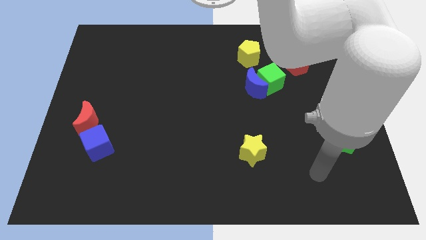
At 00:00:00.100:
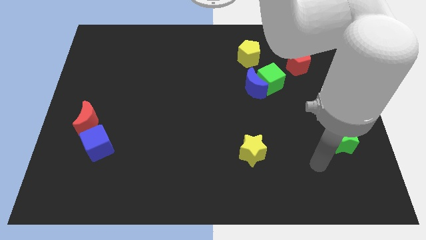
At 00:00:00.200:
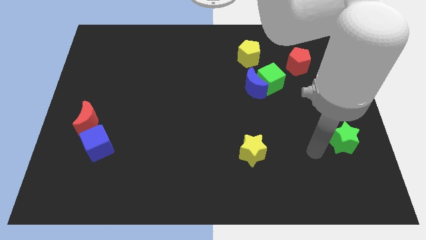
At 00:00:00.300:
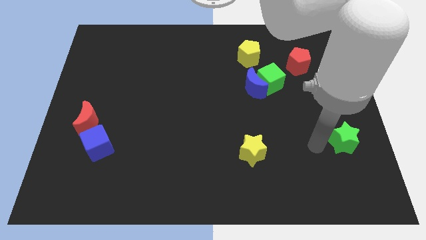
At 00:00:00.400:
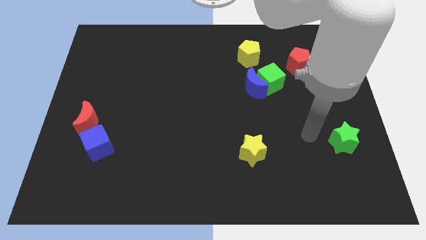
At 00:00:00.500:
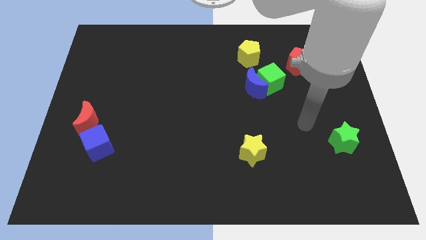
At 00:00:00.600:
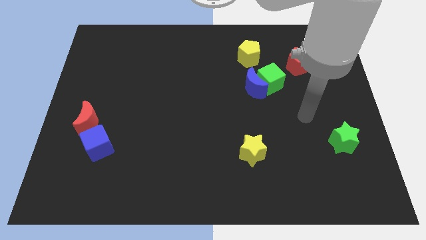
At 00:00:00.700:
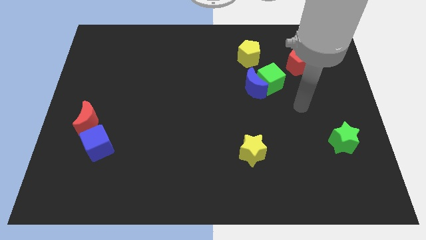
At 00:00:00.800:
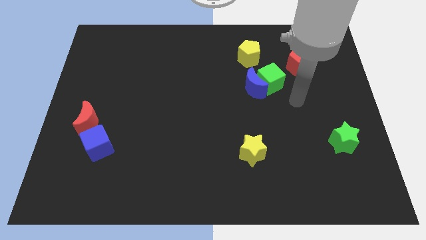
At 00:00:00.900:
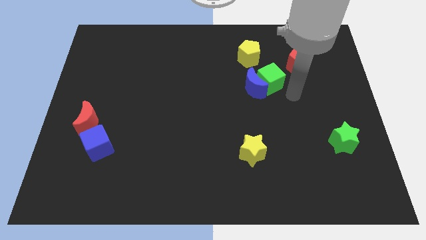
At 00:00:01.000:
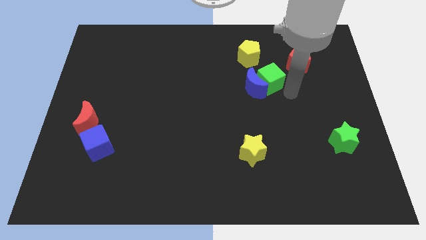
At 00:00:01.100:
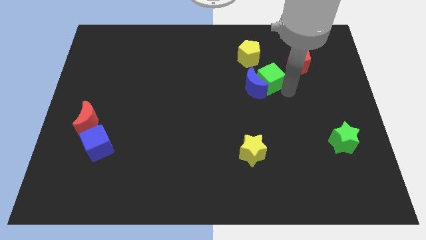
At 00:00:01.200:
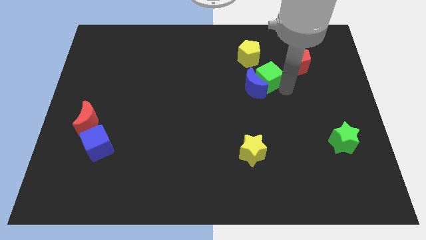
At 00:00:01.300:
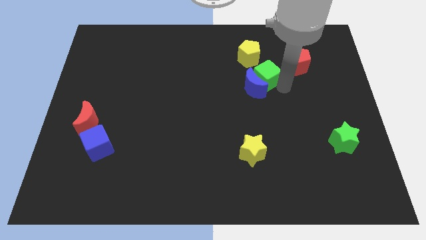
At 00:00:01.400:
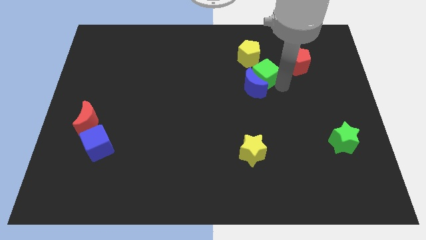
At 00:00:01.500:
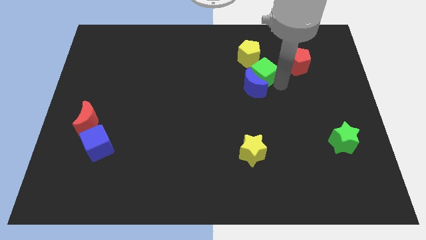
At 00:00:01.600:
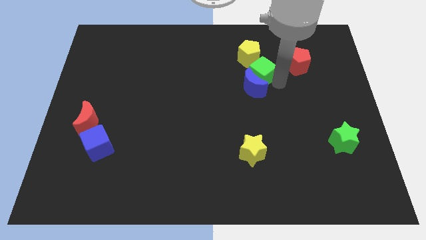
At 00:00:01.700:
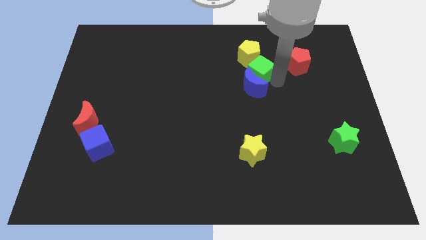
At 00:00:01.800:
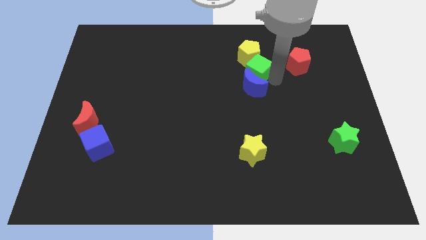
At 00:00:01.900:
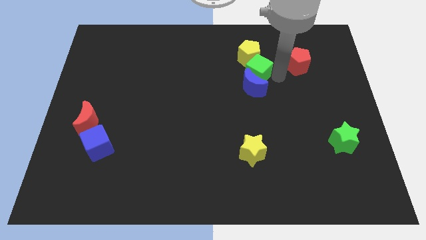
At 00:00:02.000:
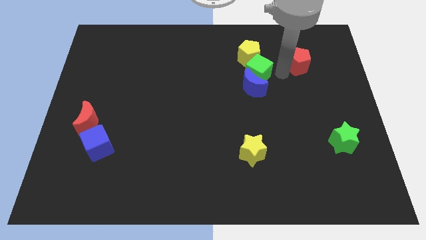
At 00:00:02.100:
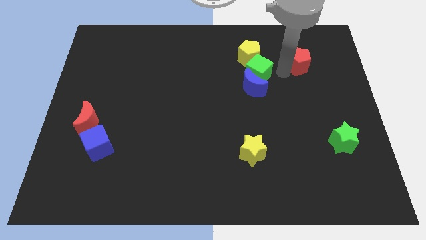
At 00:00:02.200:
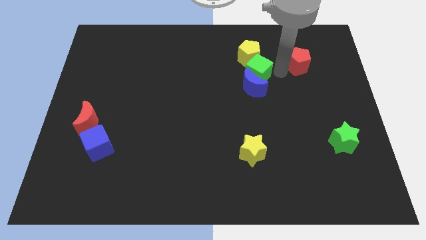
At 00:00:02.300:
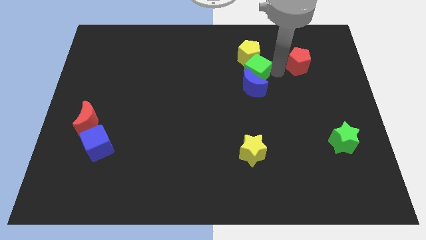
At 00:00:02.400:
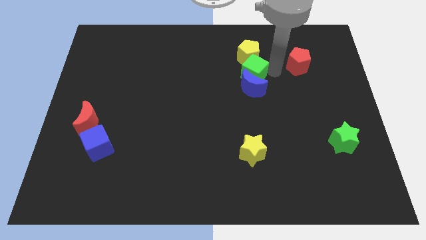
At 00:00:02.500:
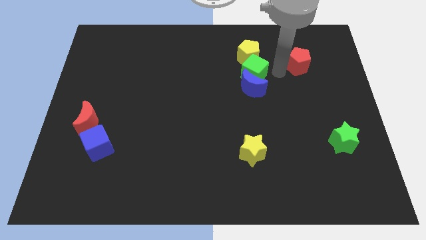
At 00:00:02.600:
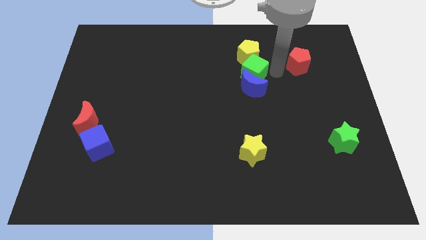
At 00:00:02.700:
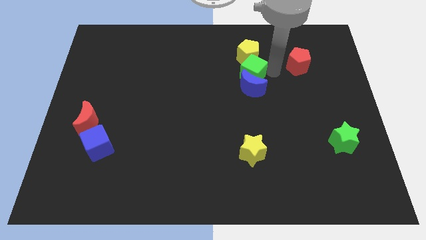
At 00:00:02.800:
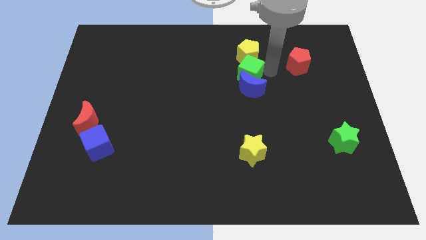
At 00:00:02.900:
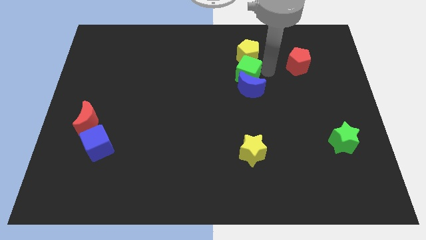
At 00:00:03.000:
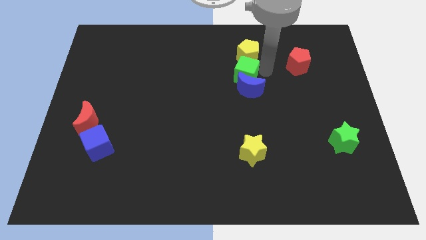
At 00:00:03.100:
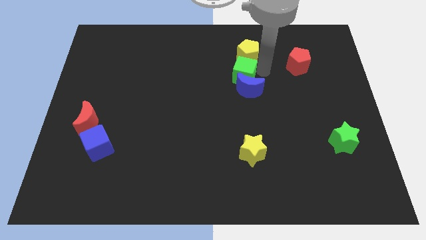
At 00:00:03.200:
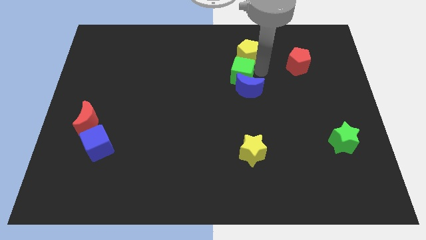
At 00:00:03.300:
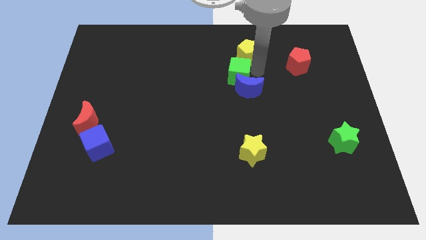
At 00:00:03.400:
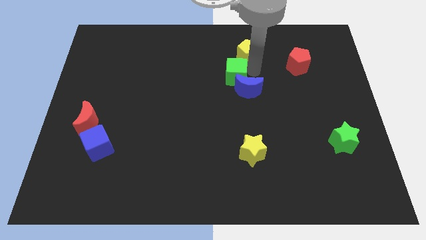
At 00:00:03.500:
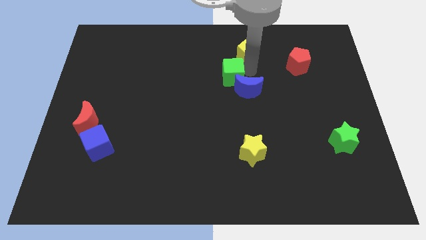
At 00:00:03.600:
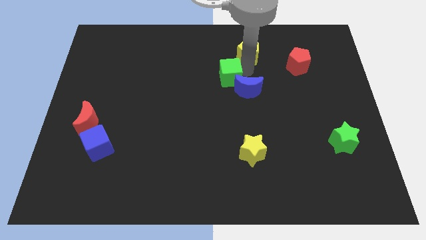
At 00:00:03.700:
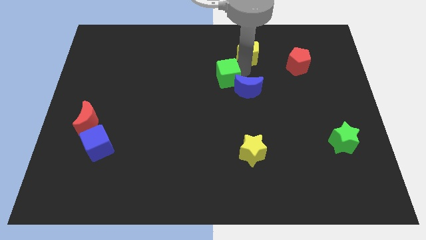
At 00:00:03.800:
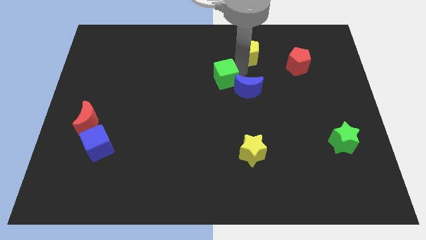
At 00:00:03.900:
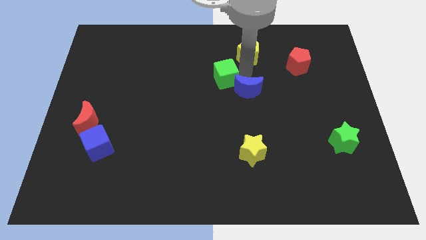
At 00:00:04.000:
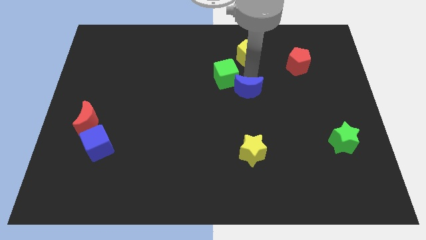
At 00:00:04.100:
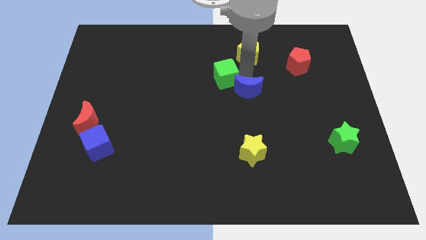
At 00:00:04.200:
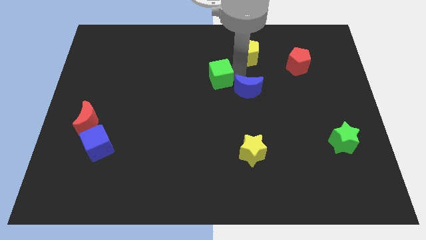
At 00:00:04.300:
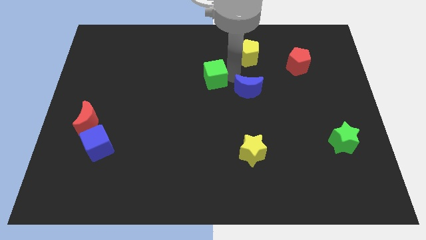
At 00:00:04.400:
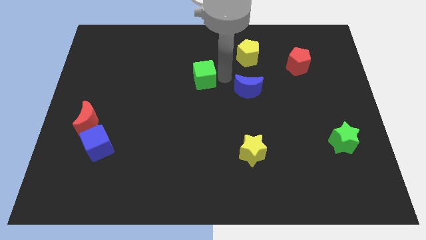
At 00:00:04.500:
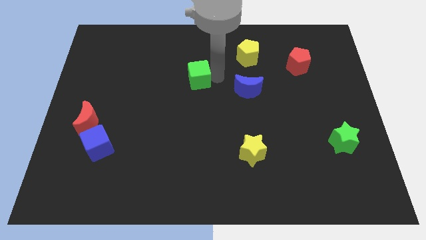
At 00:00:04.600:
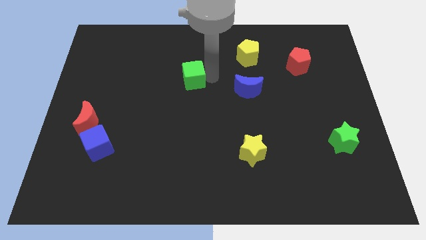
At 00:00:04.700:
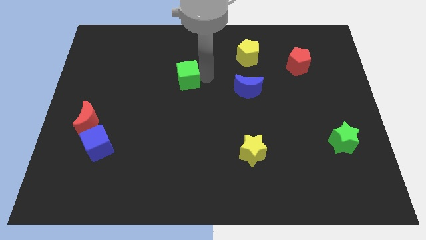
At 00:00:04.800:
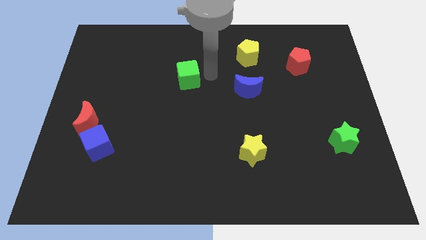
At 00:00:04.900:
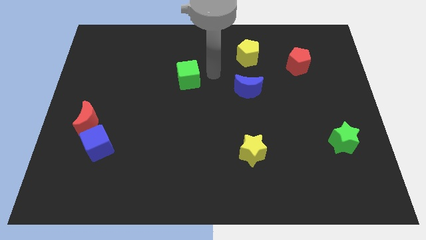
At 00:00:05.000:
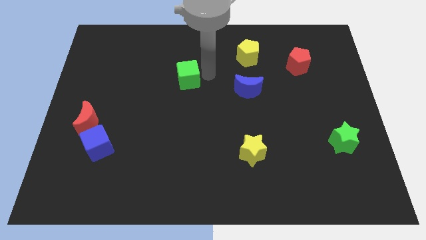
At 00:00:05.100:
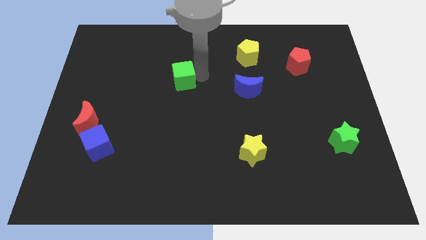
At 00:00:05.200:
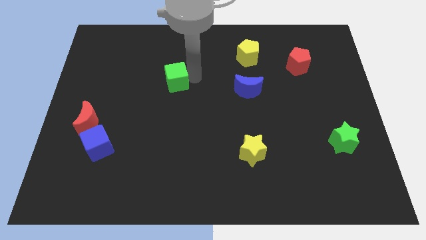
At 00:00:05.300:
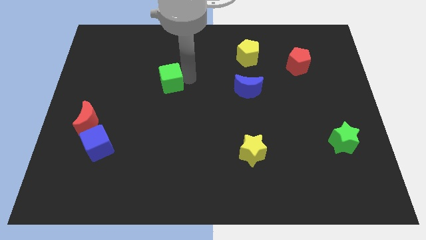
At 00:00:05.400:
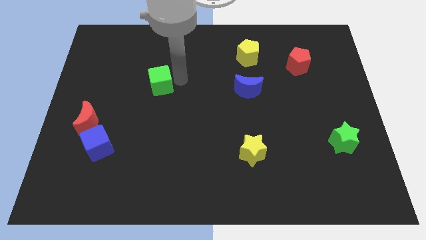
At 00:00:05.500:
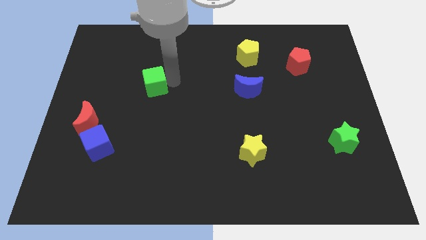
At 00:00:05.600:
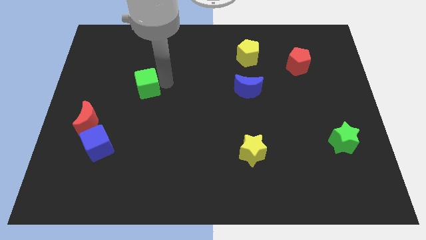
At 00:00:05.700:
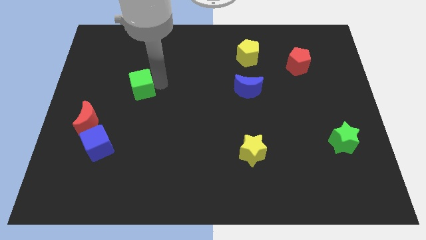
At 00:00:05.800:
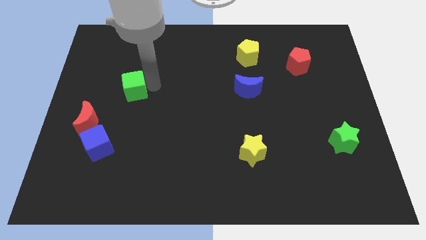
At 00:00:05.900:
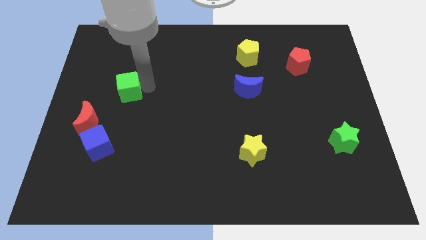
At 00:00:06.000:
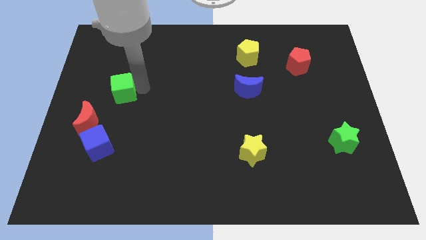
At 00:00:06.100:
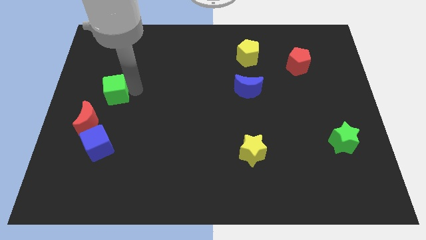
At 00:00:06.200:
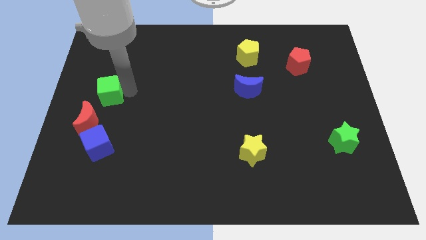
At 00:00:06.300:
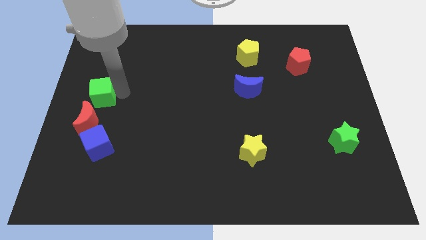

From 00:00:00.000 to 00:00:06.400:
put the green cube to the left side
